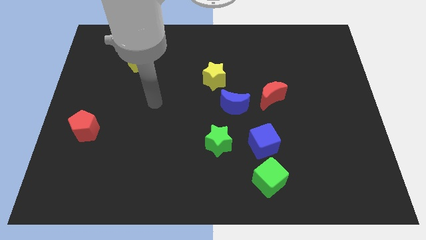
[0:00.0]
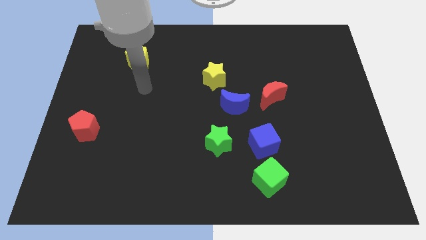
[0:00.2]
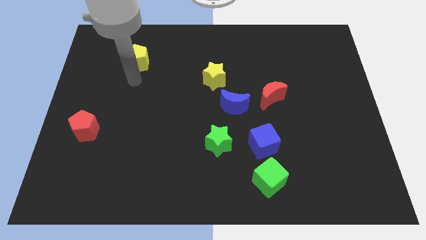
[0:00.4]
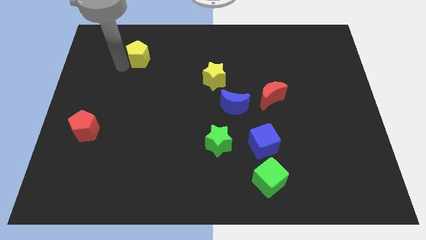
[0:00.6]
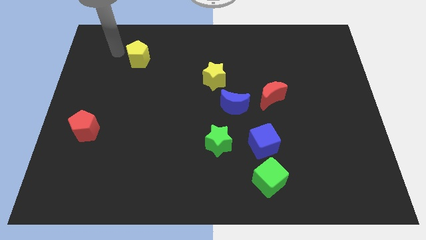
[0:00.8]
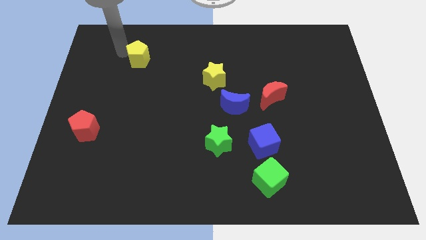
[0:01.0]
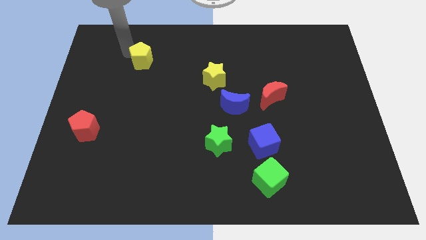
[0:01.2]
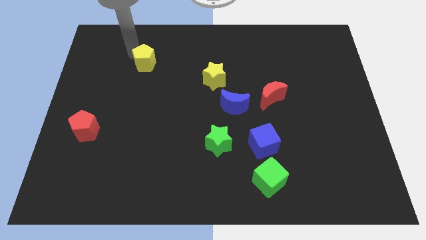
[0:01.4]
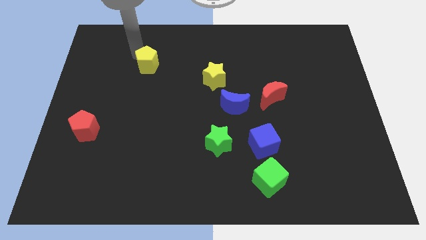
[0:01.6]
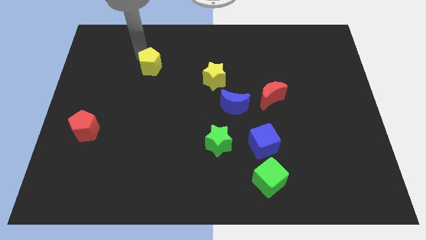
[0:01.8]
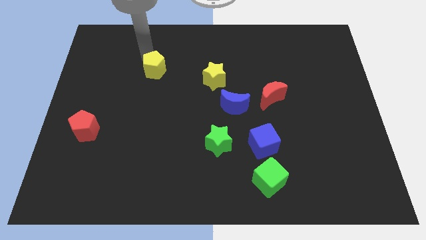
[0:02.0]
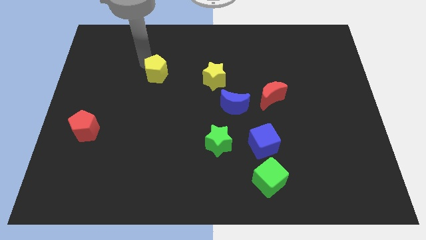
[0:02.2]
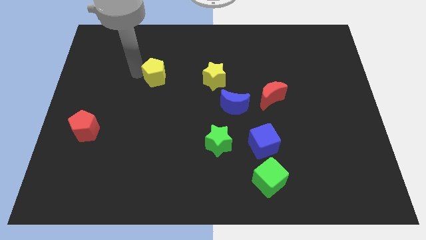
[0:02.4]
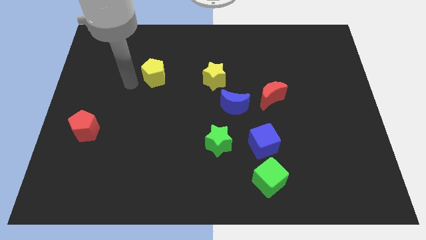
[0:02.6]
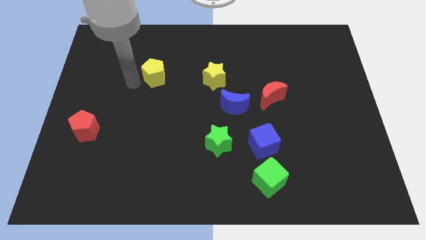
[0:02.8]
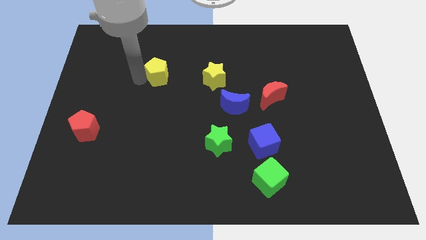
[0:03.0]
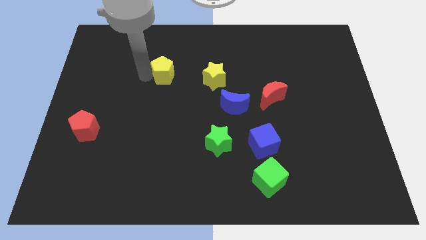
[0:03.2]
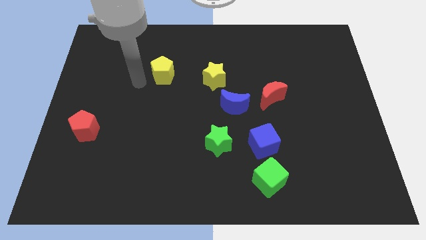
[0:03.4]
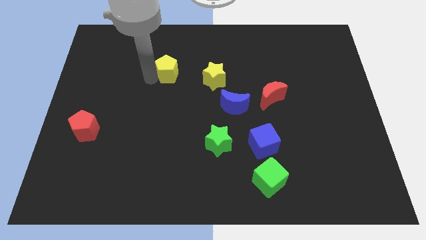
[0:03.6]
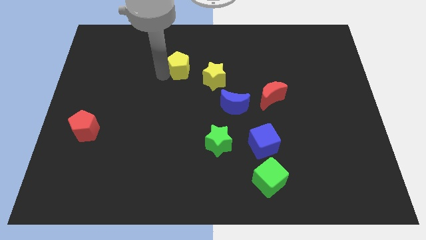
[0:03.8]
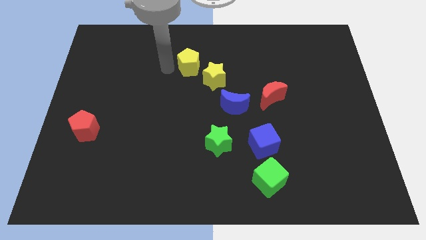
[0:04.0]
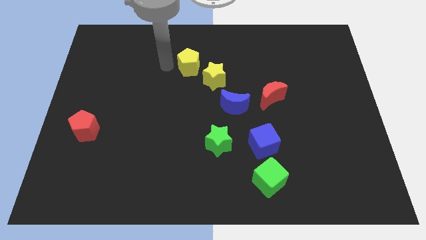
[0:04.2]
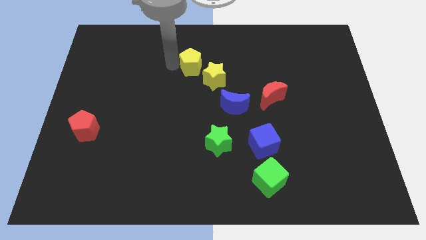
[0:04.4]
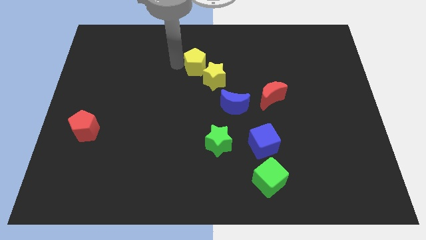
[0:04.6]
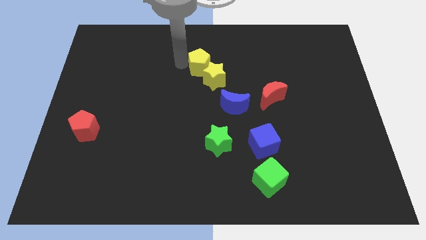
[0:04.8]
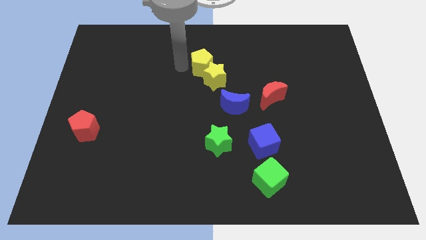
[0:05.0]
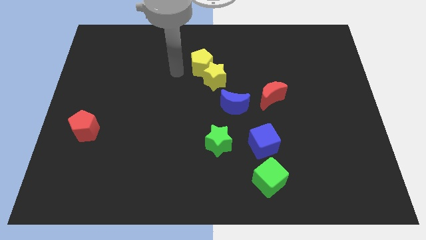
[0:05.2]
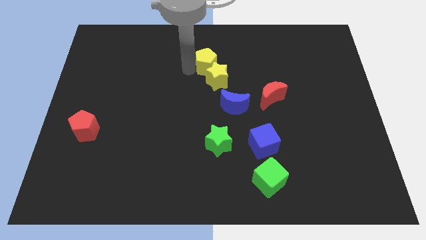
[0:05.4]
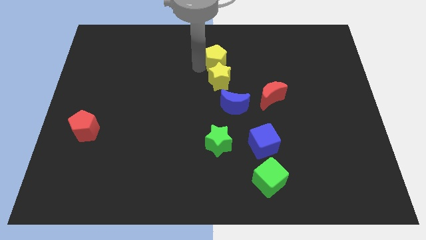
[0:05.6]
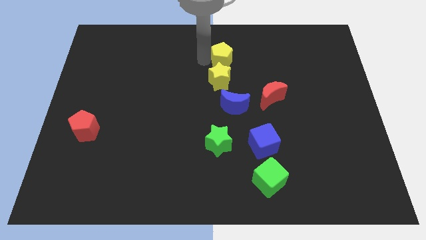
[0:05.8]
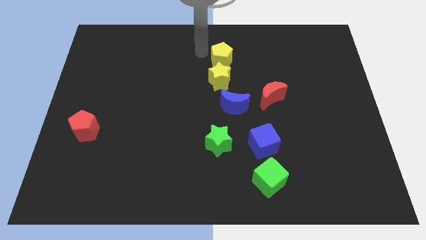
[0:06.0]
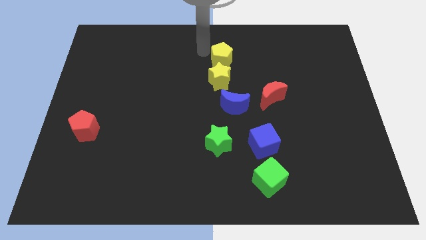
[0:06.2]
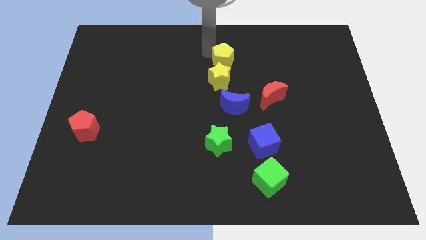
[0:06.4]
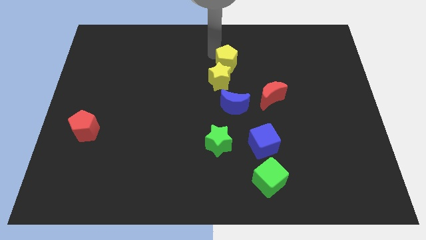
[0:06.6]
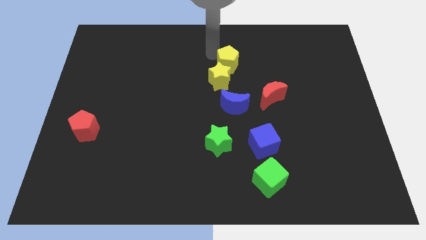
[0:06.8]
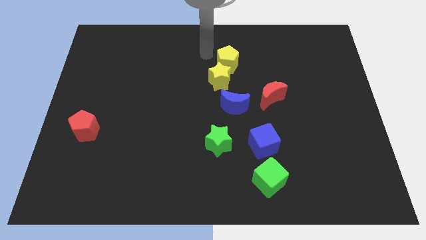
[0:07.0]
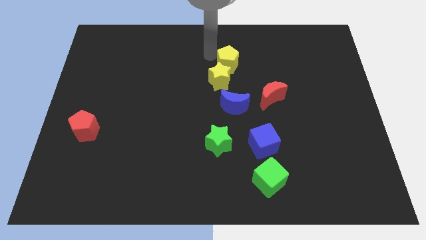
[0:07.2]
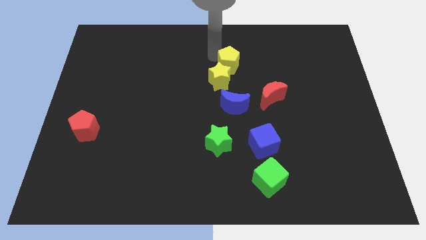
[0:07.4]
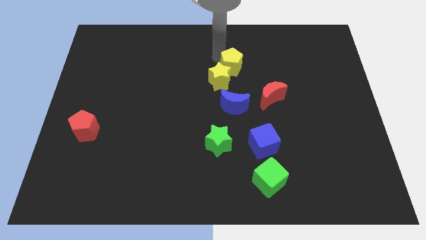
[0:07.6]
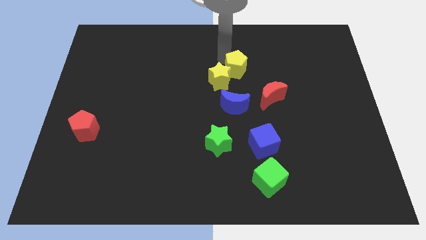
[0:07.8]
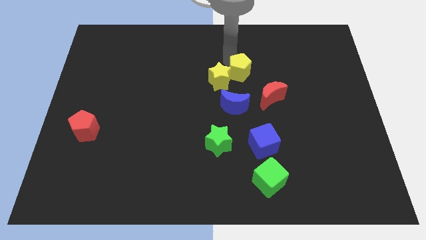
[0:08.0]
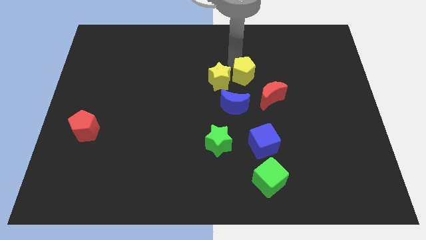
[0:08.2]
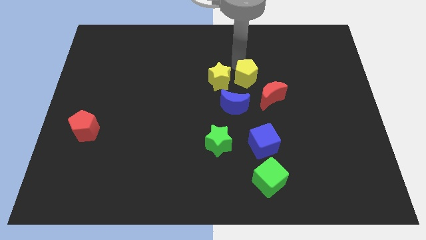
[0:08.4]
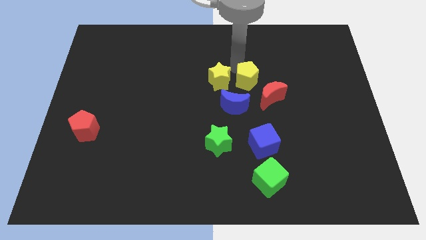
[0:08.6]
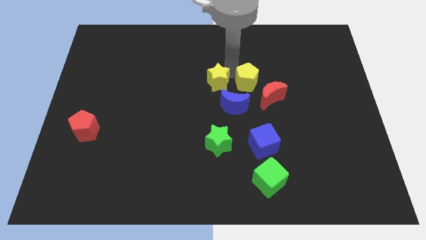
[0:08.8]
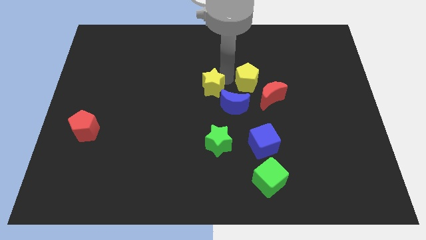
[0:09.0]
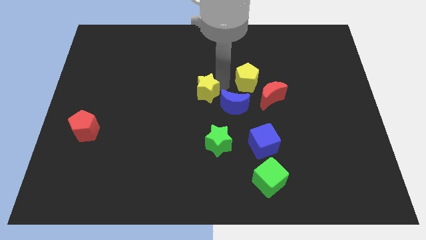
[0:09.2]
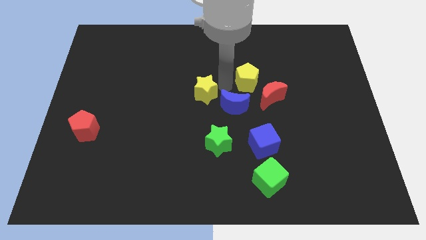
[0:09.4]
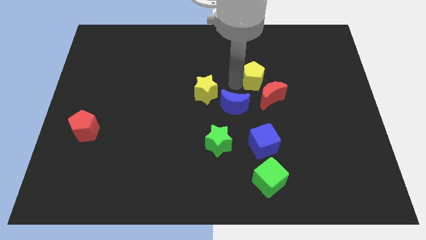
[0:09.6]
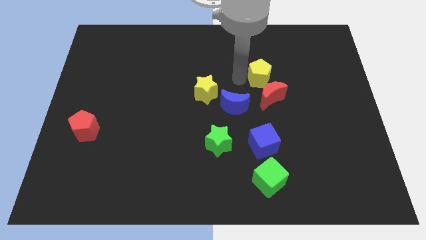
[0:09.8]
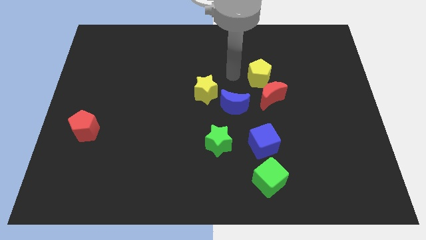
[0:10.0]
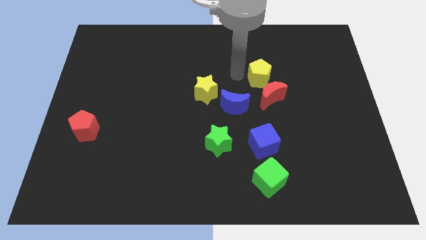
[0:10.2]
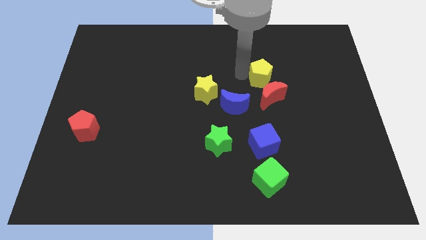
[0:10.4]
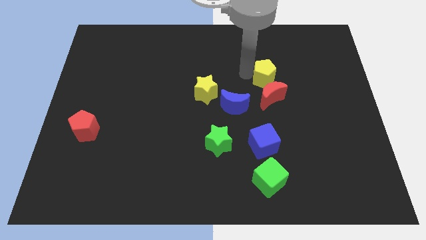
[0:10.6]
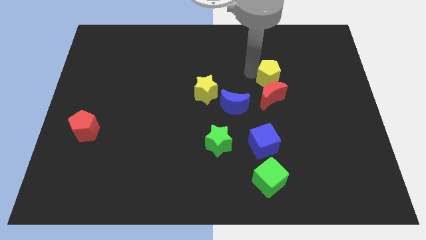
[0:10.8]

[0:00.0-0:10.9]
put the yellow pentagon to the top right of the red moon

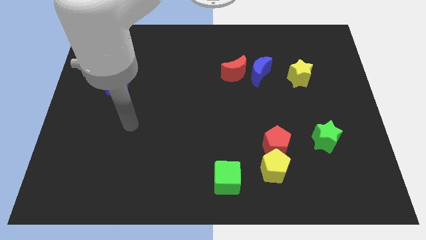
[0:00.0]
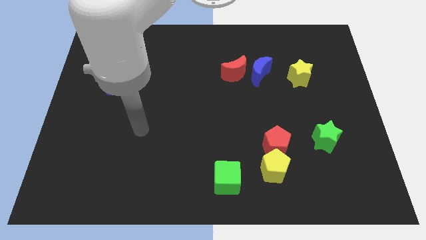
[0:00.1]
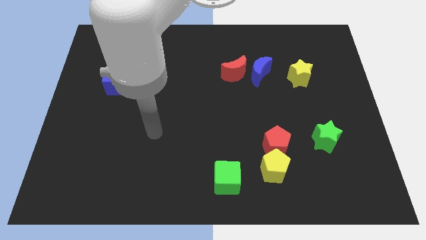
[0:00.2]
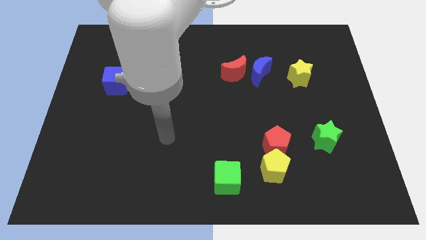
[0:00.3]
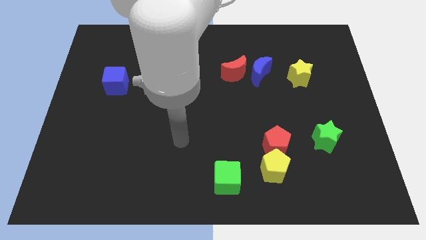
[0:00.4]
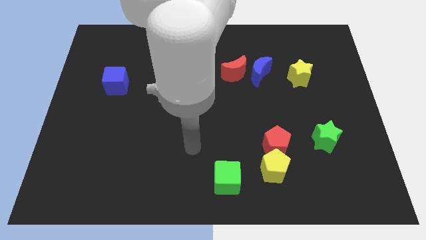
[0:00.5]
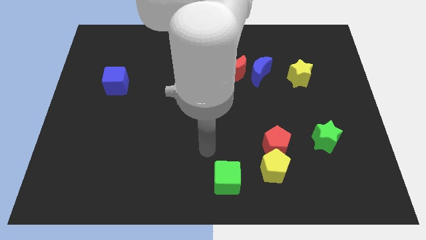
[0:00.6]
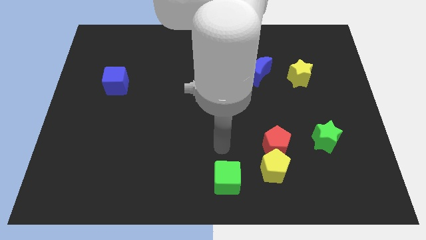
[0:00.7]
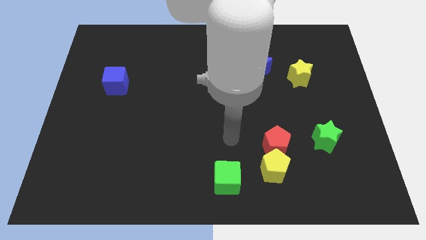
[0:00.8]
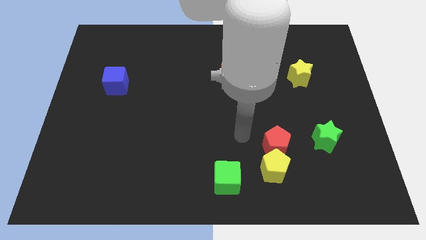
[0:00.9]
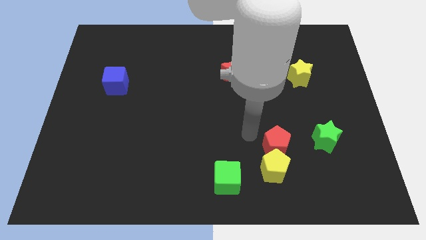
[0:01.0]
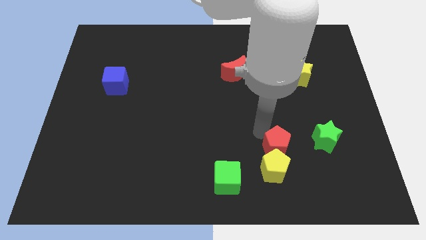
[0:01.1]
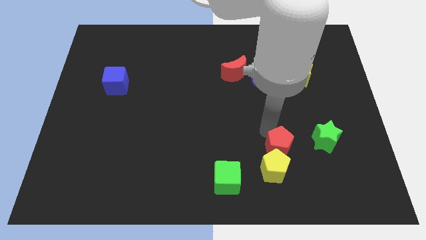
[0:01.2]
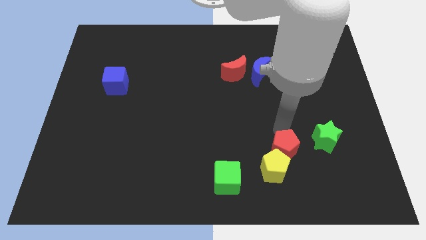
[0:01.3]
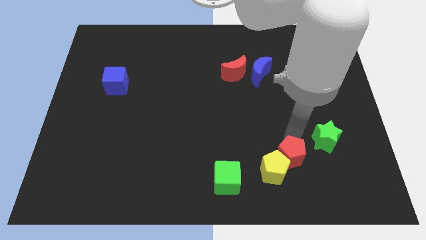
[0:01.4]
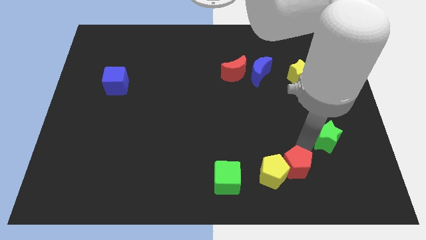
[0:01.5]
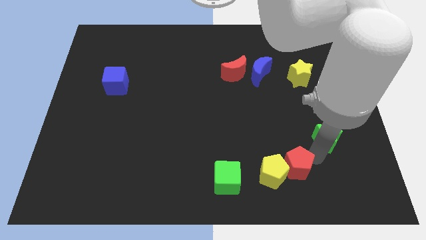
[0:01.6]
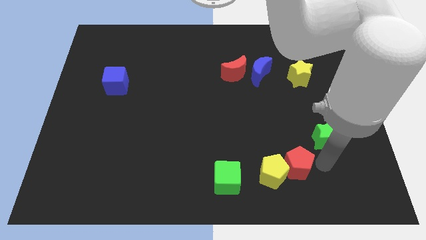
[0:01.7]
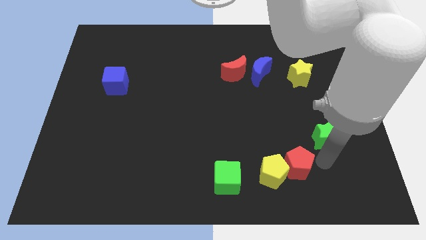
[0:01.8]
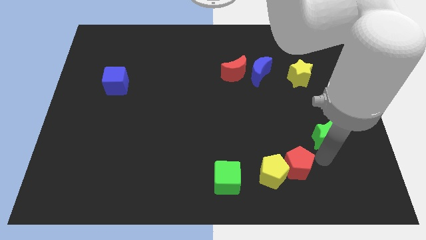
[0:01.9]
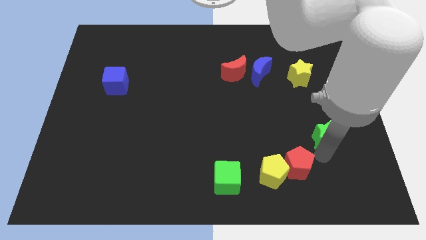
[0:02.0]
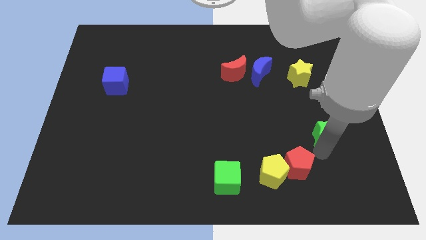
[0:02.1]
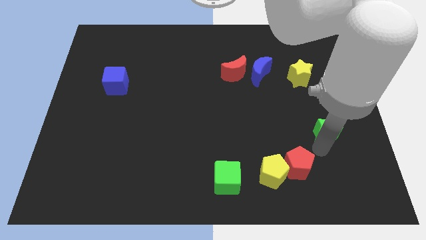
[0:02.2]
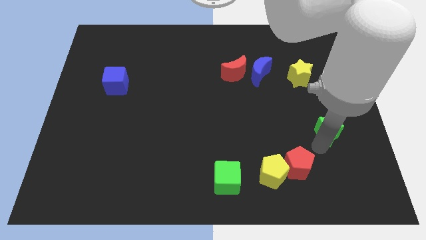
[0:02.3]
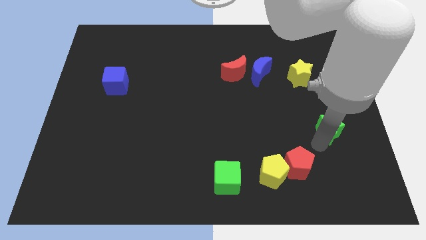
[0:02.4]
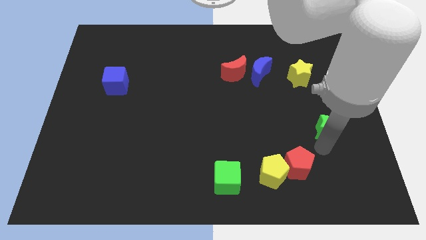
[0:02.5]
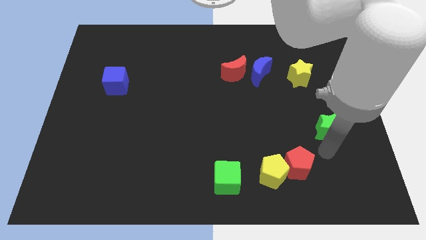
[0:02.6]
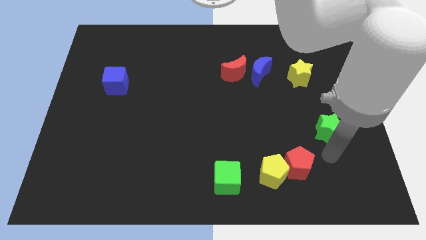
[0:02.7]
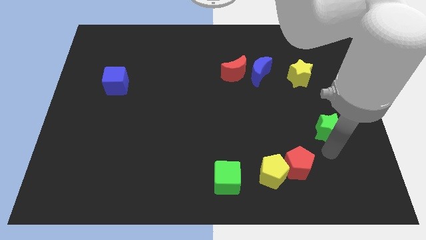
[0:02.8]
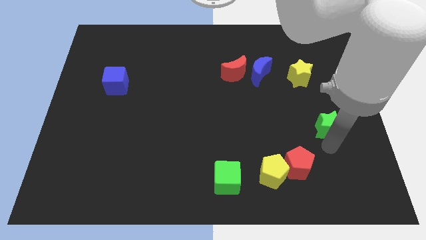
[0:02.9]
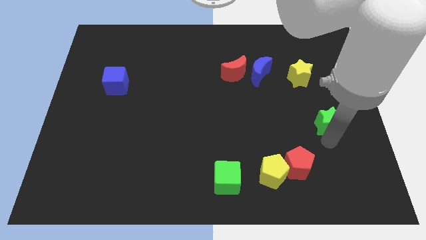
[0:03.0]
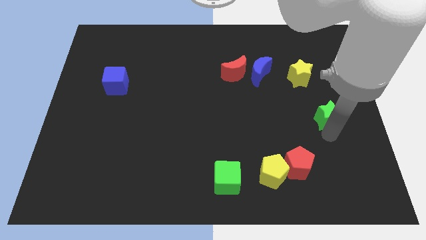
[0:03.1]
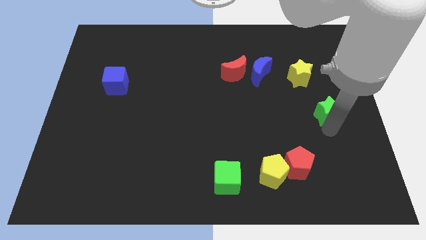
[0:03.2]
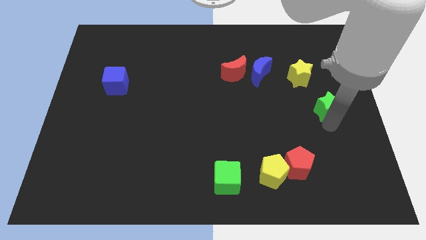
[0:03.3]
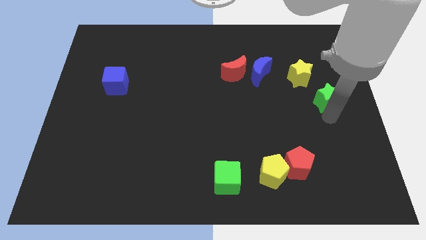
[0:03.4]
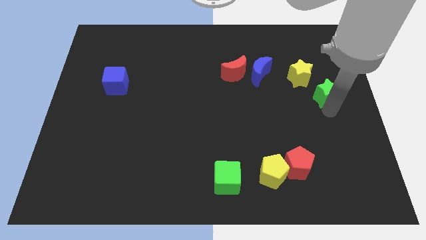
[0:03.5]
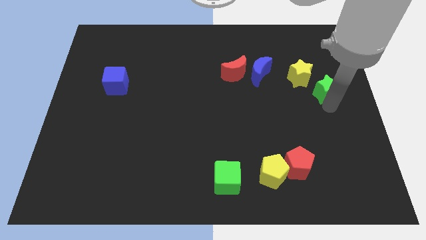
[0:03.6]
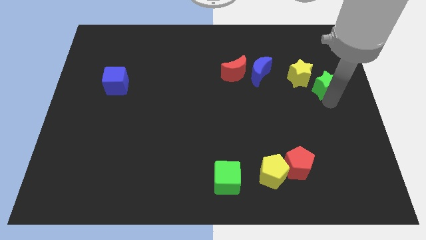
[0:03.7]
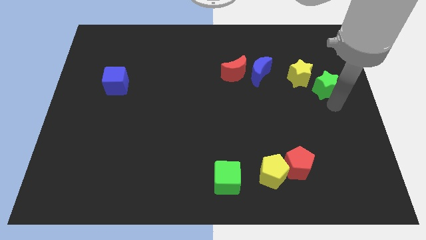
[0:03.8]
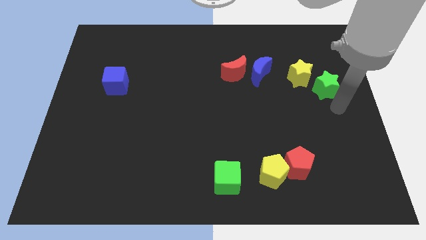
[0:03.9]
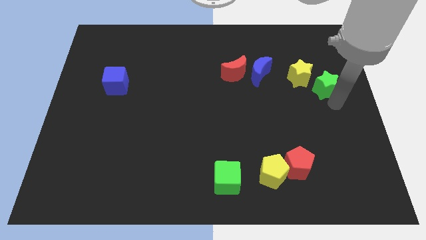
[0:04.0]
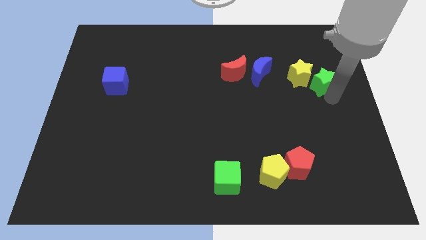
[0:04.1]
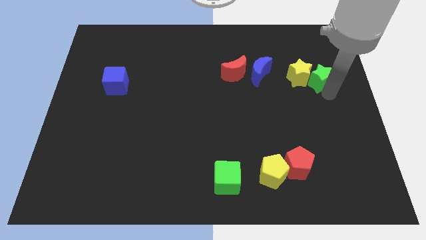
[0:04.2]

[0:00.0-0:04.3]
slide the green star to the right side of the blue moon
